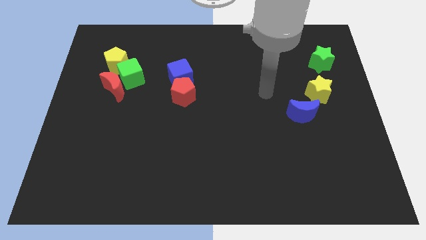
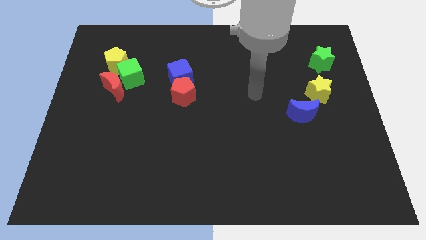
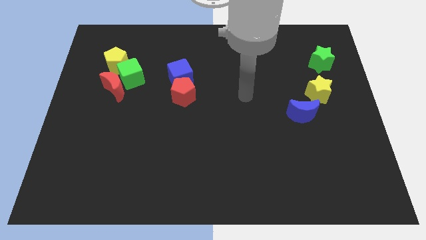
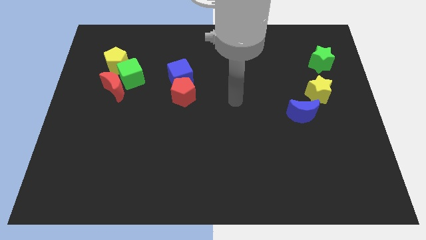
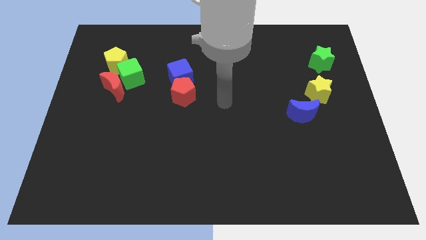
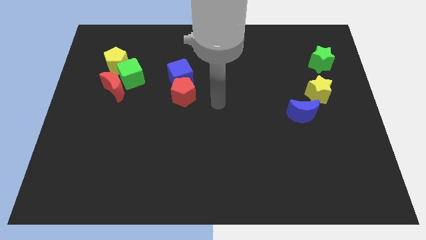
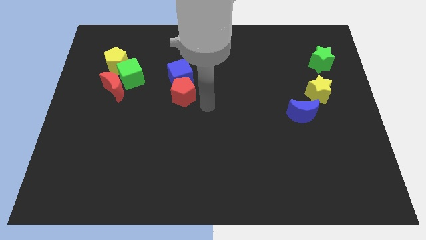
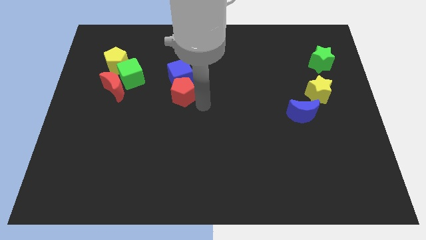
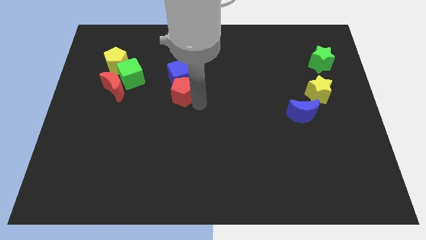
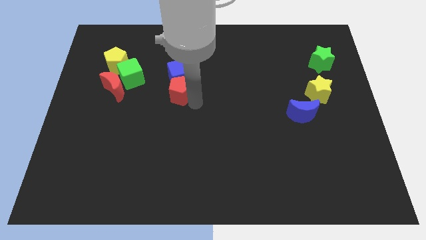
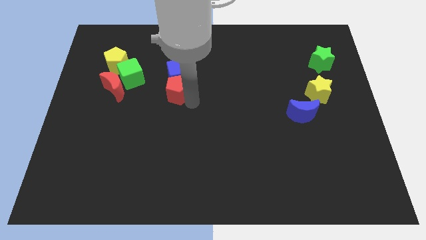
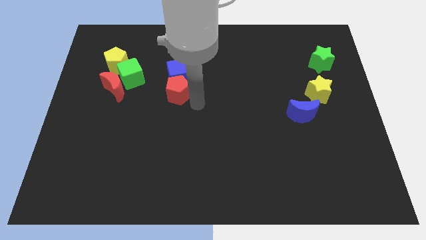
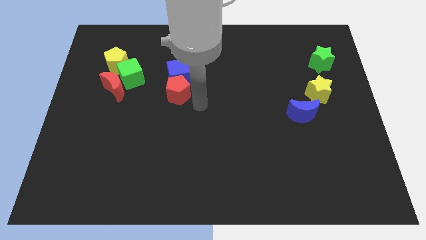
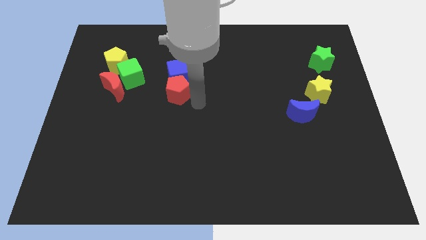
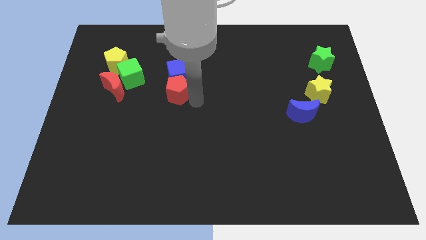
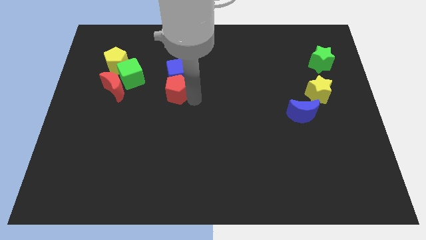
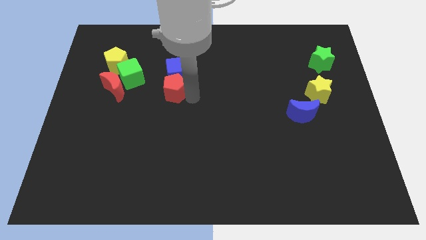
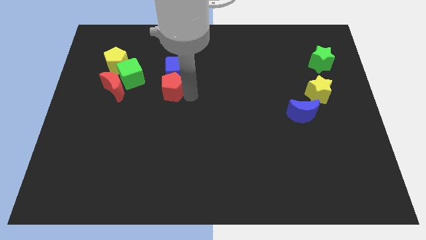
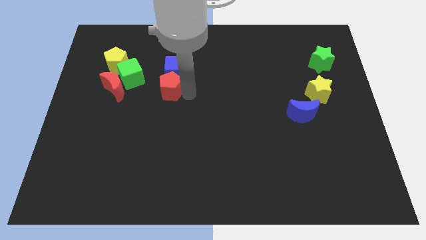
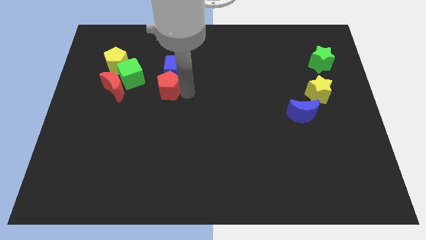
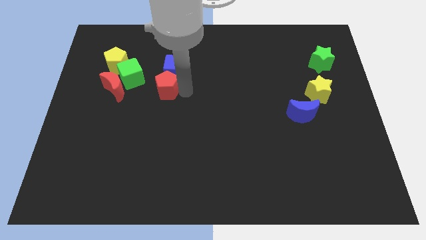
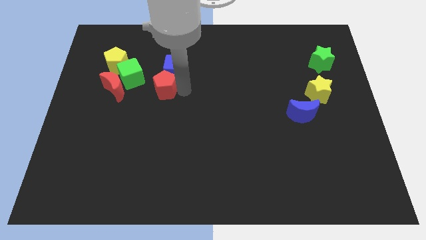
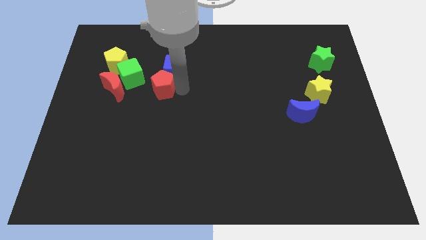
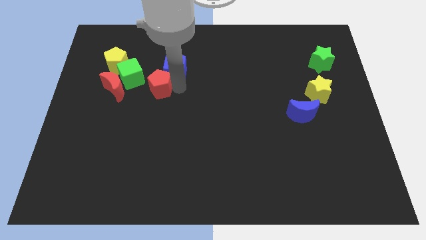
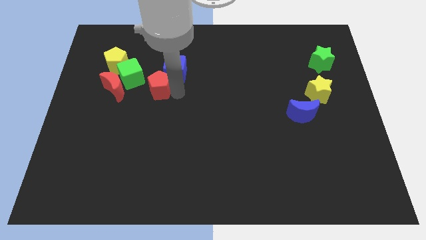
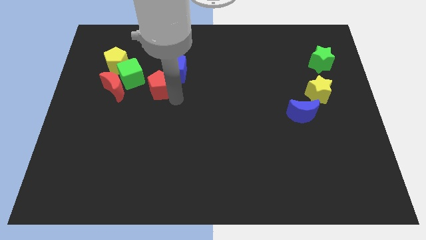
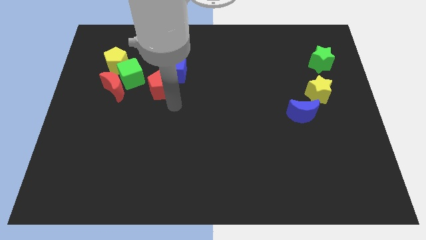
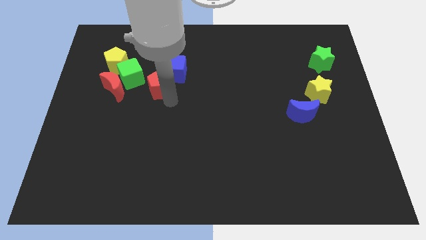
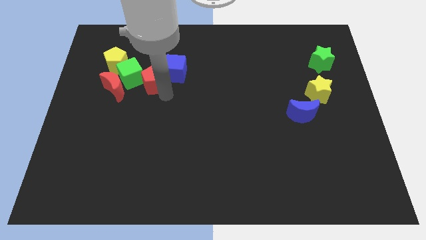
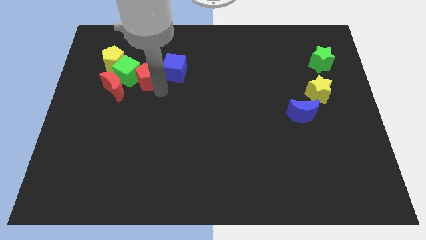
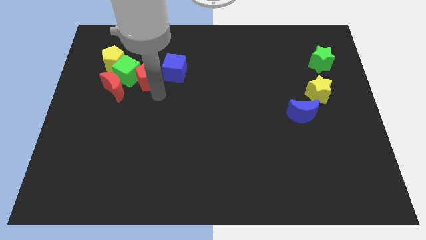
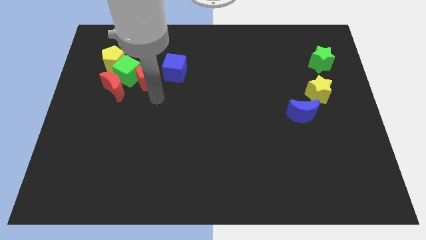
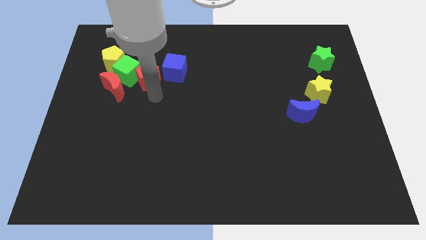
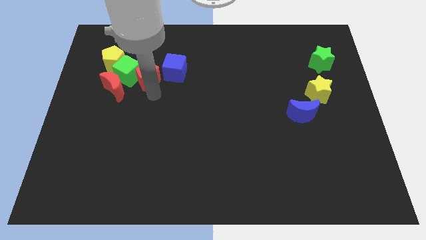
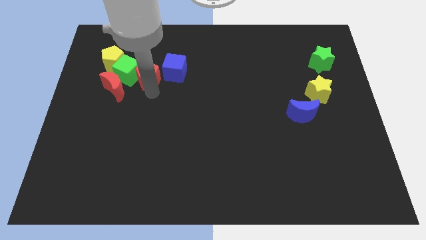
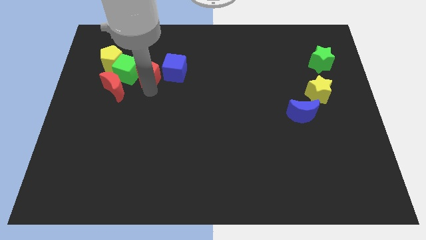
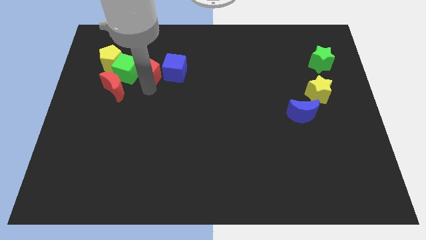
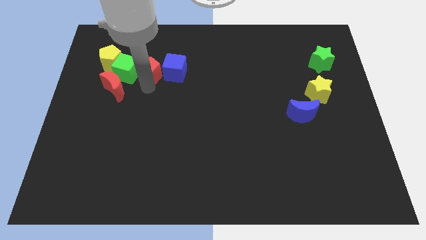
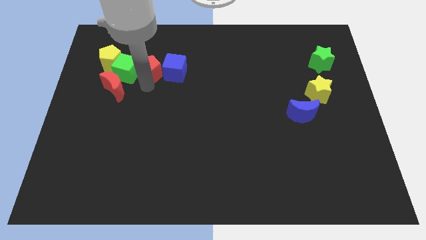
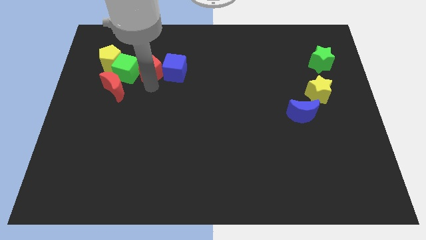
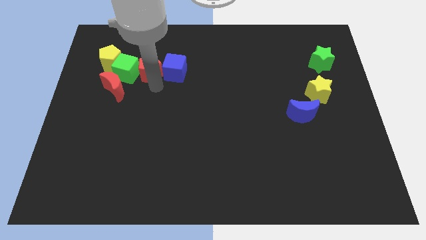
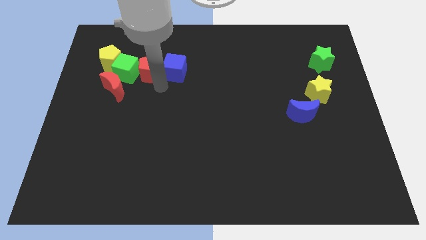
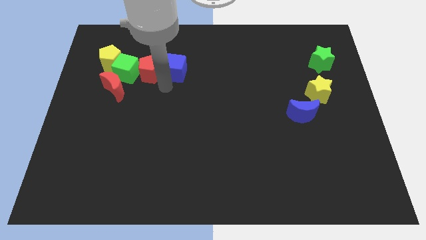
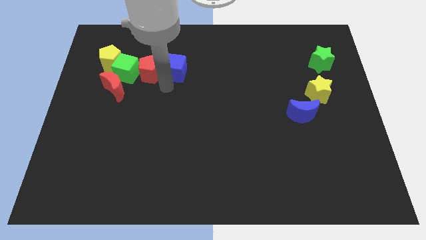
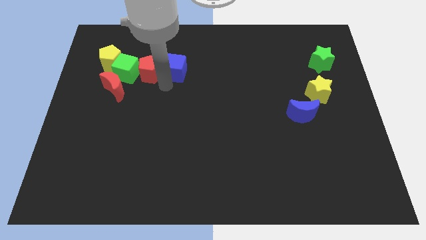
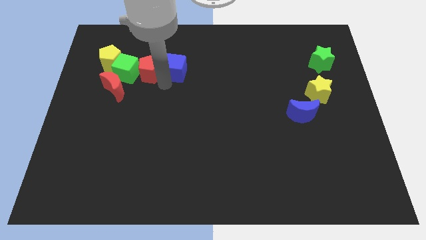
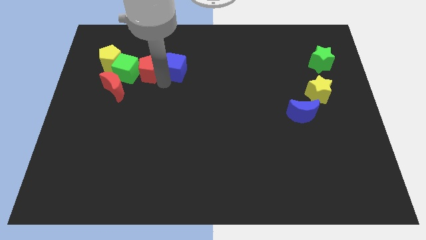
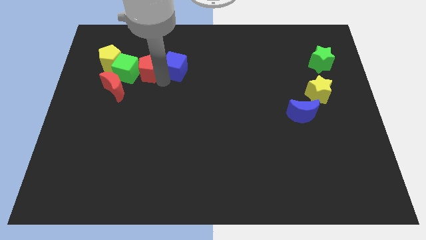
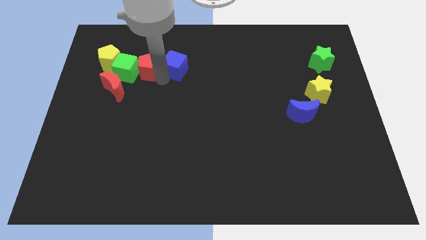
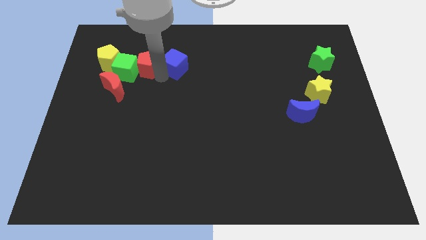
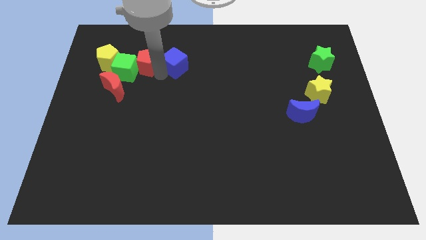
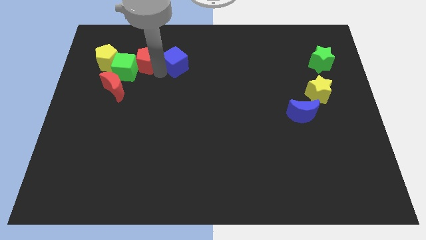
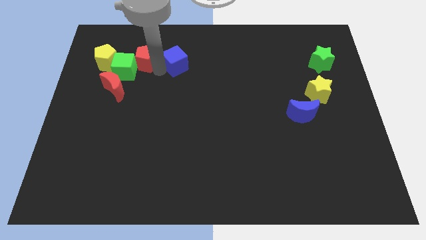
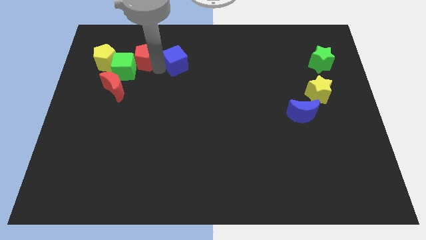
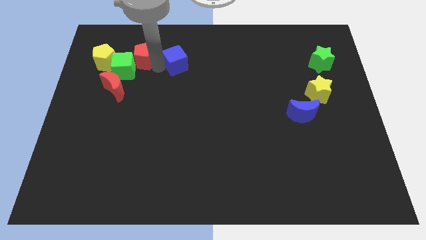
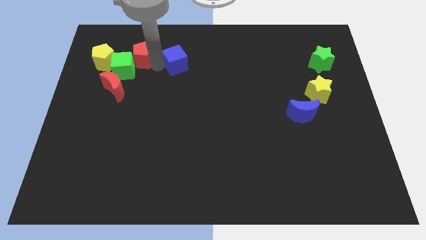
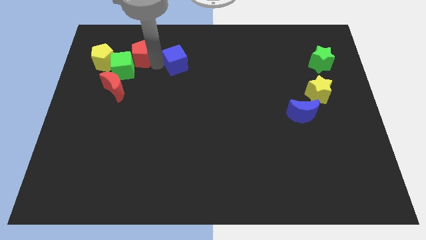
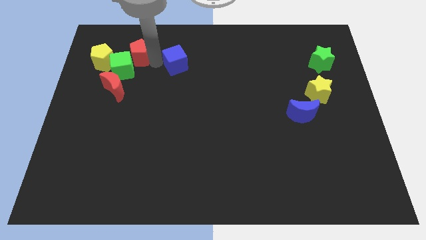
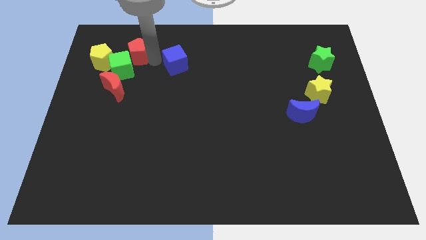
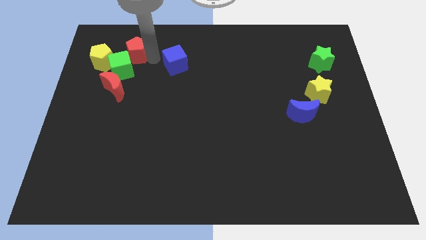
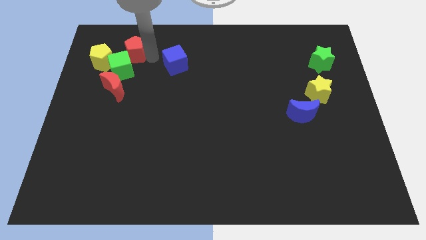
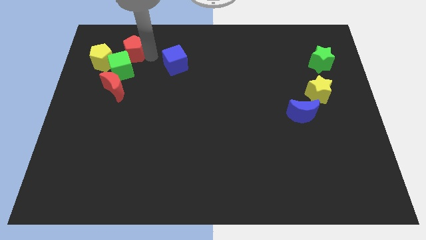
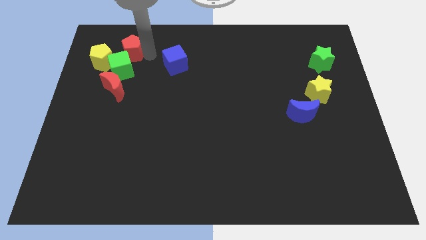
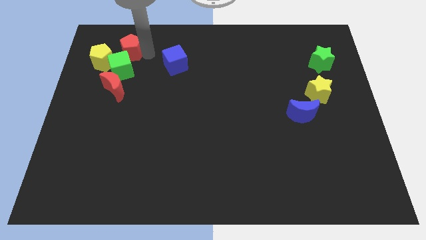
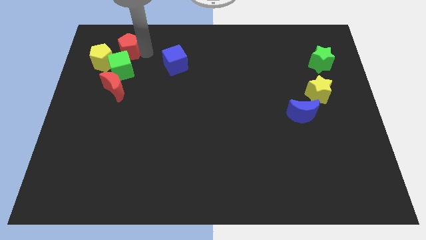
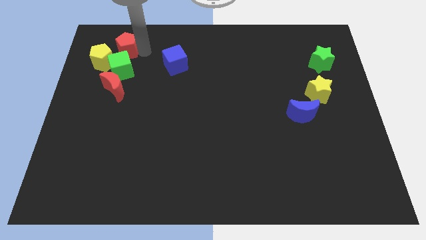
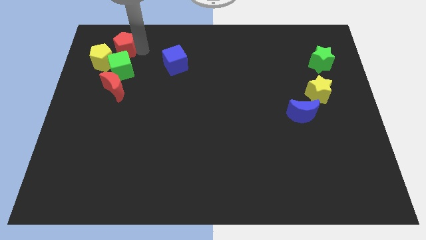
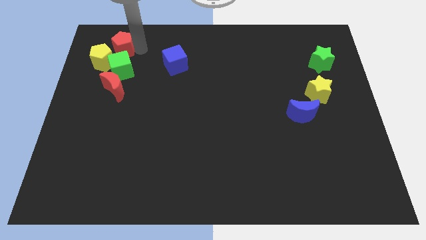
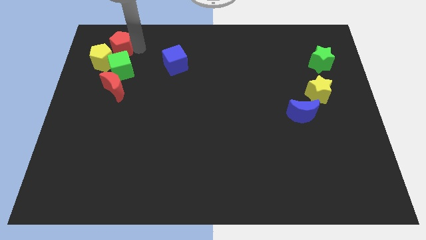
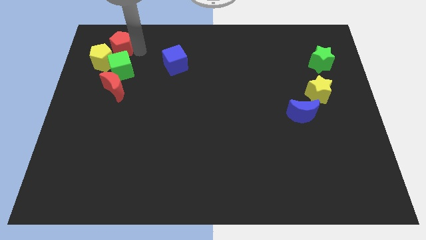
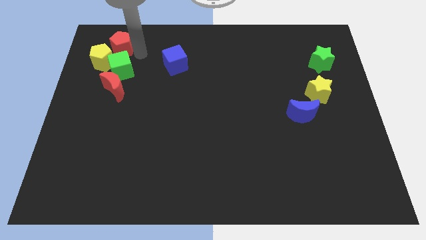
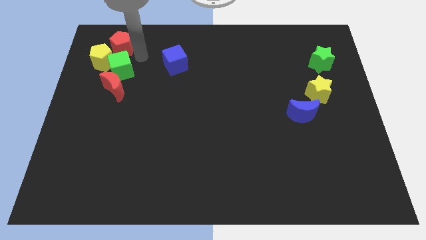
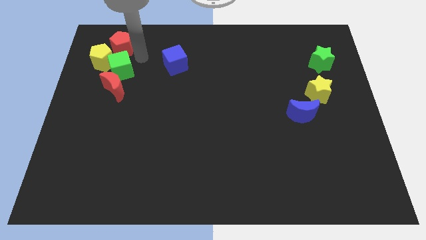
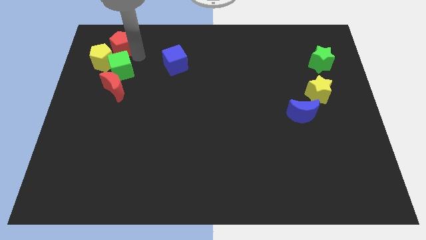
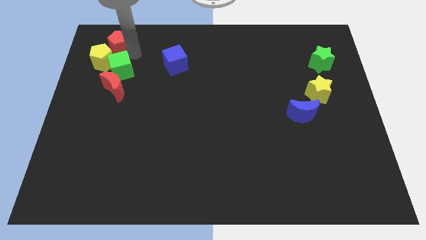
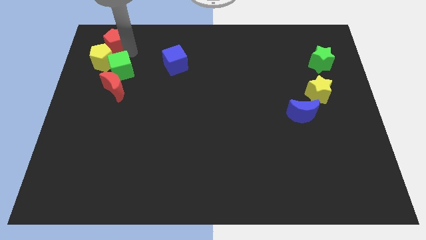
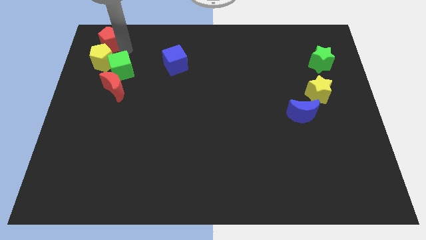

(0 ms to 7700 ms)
slide the red pentagon to the top left
